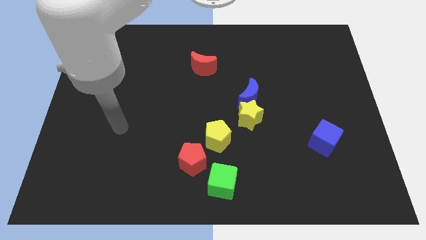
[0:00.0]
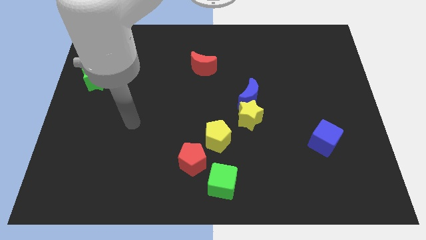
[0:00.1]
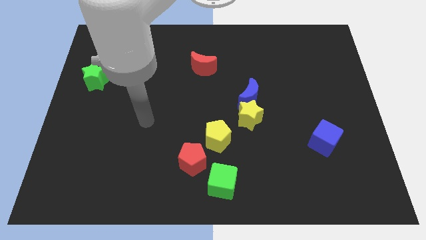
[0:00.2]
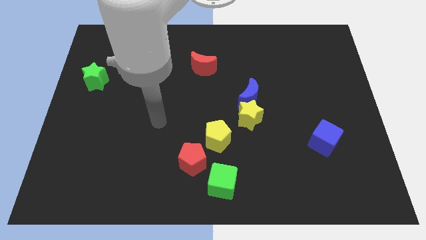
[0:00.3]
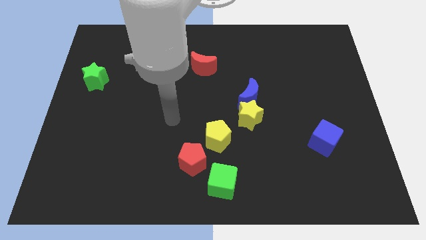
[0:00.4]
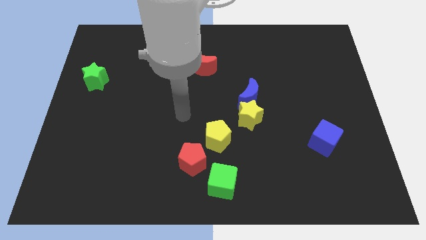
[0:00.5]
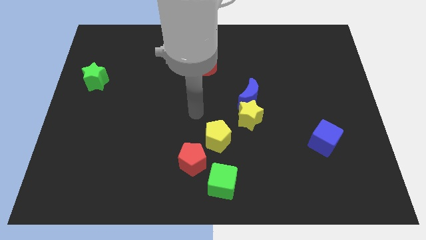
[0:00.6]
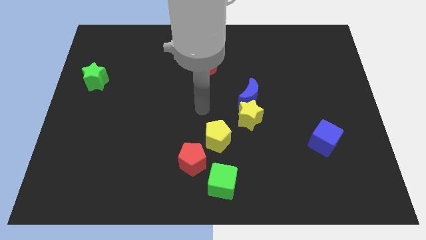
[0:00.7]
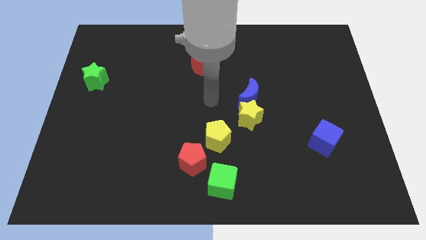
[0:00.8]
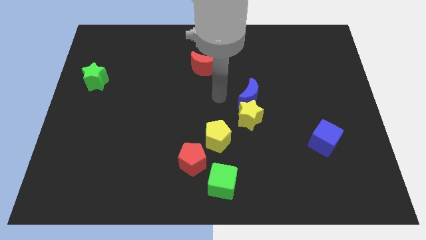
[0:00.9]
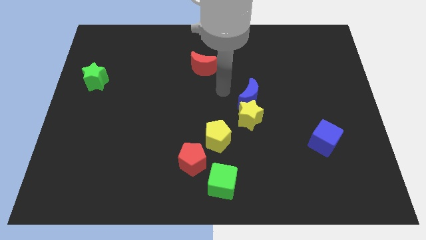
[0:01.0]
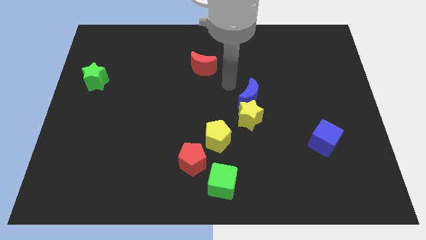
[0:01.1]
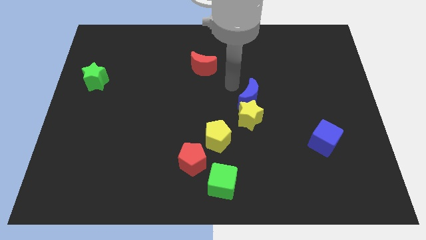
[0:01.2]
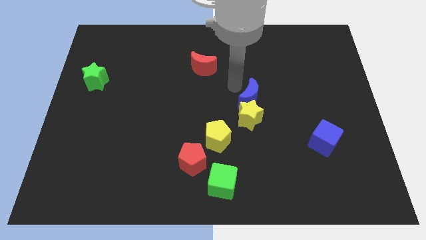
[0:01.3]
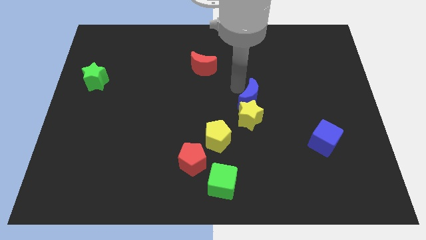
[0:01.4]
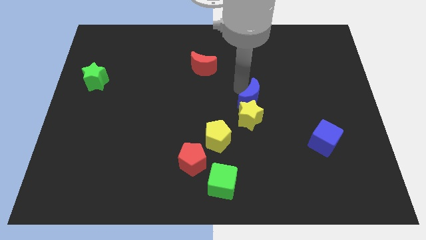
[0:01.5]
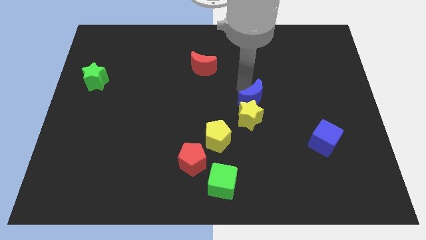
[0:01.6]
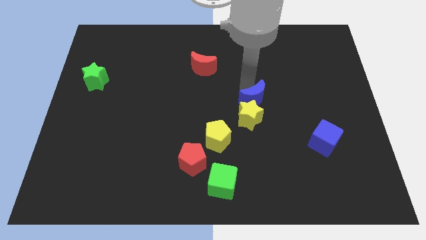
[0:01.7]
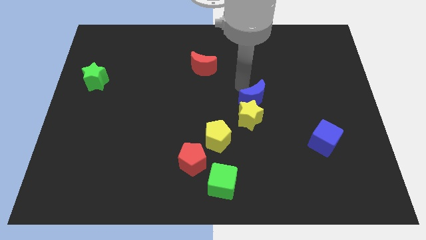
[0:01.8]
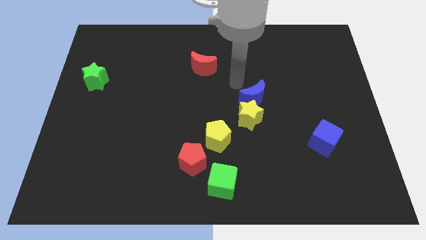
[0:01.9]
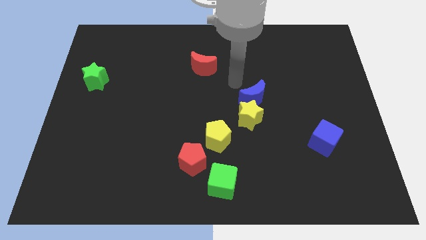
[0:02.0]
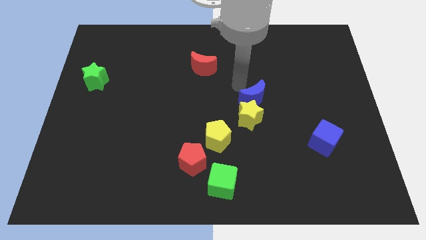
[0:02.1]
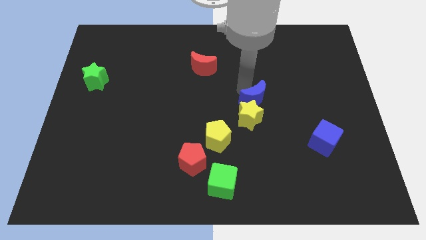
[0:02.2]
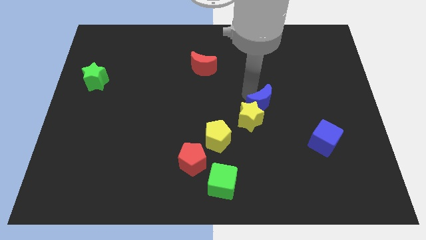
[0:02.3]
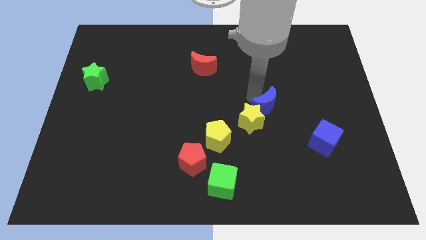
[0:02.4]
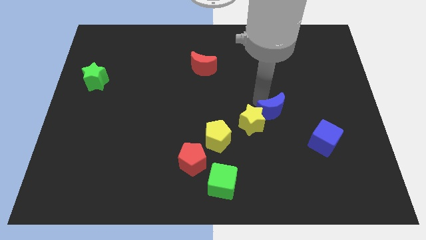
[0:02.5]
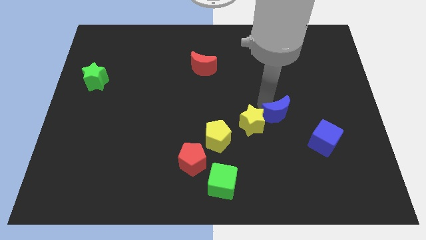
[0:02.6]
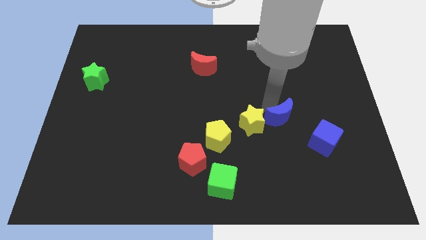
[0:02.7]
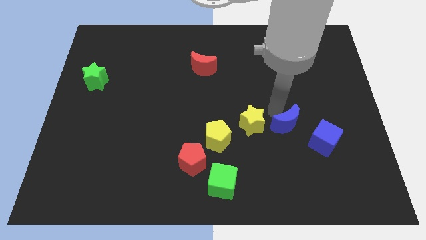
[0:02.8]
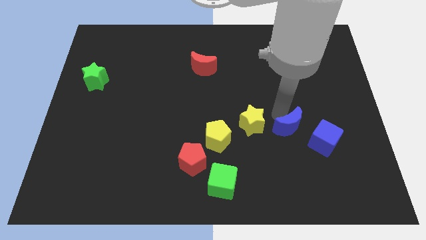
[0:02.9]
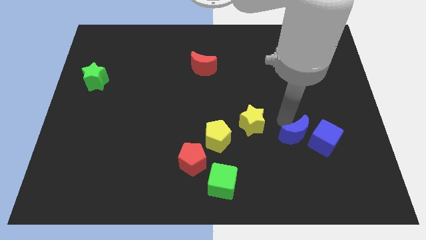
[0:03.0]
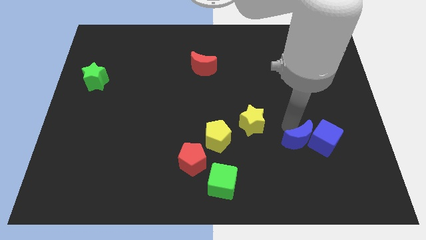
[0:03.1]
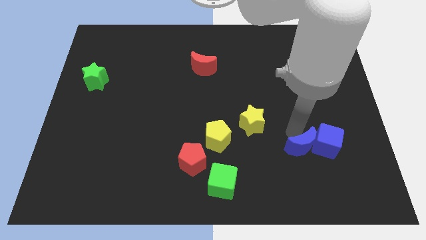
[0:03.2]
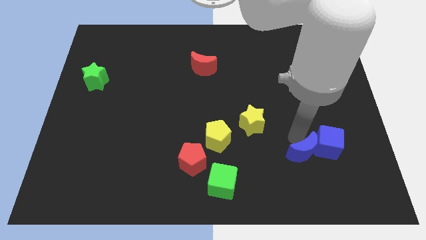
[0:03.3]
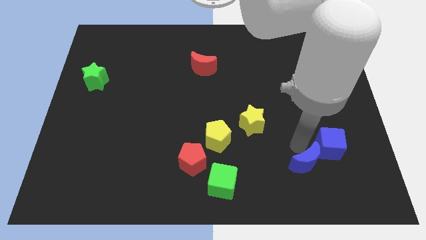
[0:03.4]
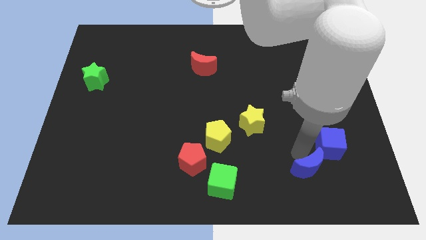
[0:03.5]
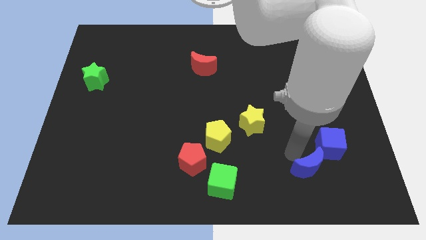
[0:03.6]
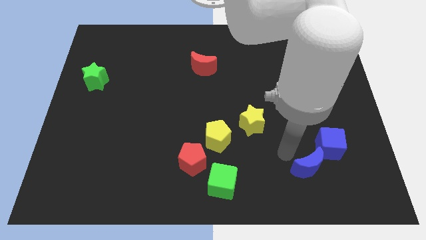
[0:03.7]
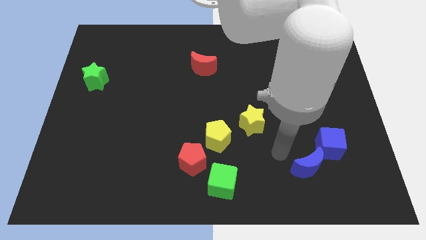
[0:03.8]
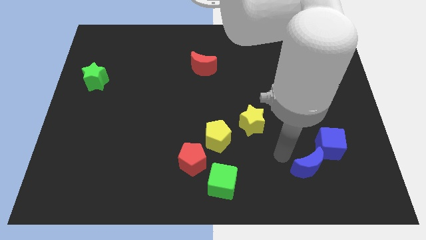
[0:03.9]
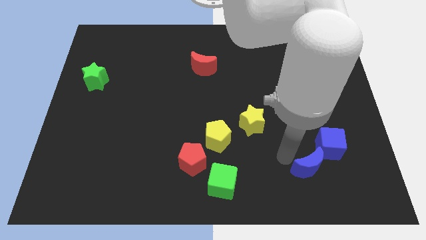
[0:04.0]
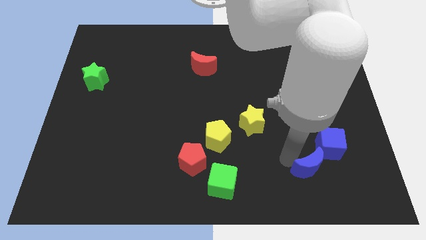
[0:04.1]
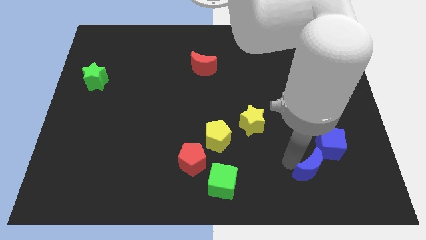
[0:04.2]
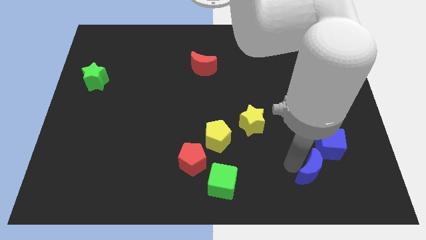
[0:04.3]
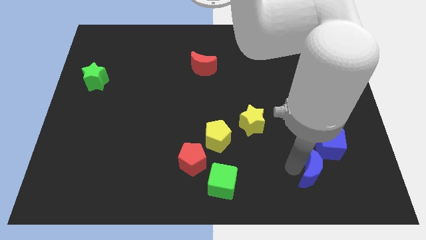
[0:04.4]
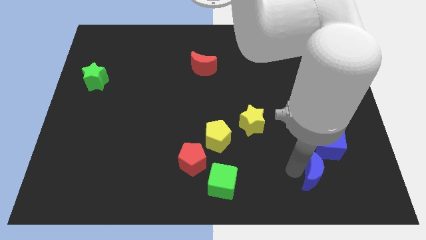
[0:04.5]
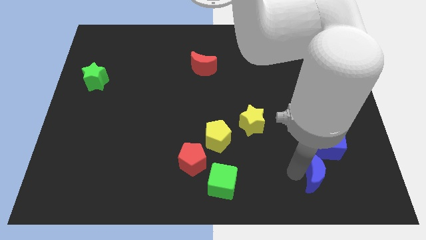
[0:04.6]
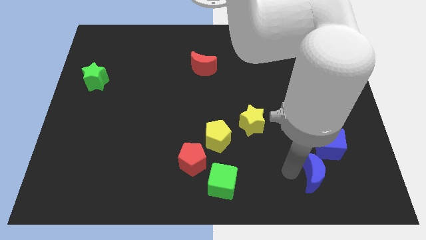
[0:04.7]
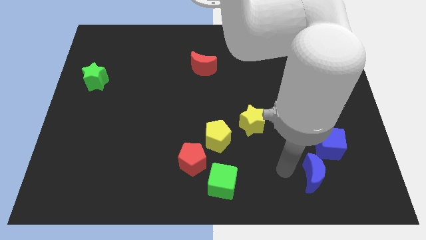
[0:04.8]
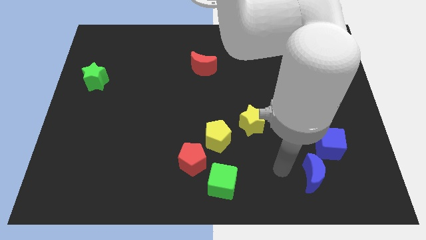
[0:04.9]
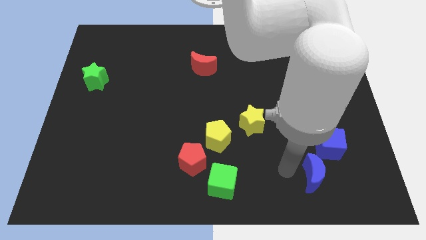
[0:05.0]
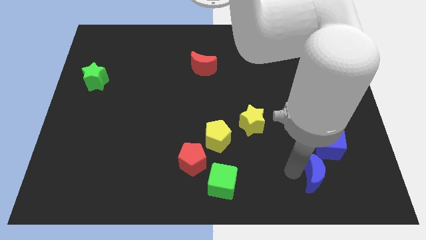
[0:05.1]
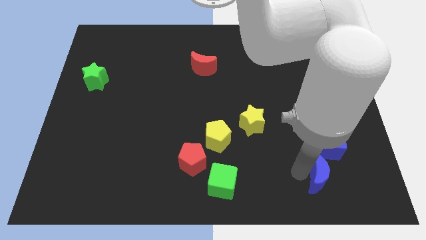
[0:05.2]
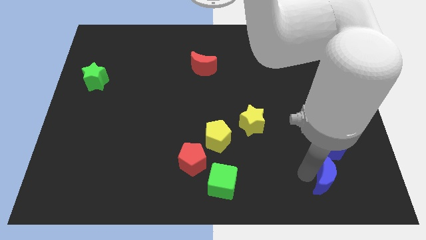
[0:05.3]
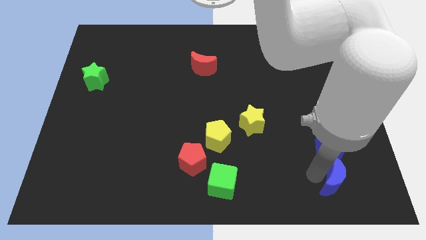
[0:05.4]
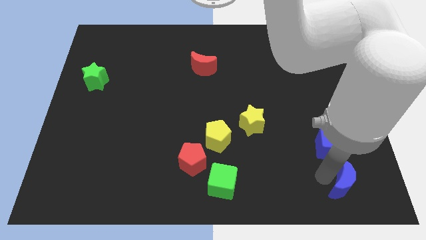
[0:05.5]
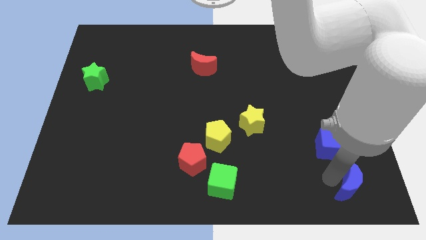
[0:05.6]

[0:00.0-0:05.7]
put the blue moon to the bottom right

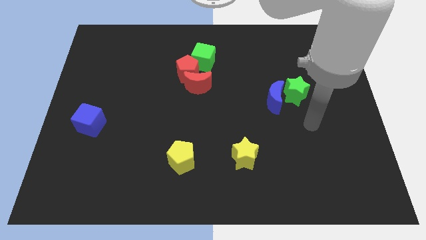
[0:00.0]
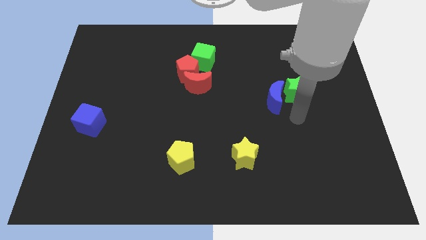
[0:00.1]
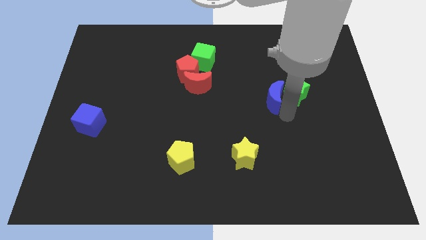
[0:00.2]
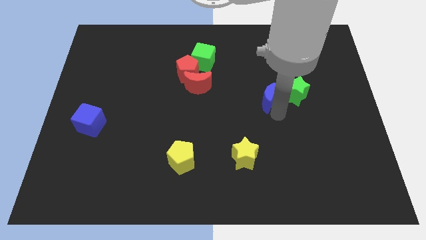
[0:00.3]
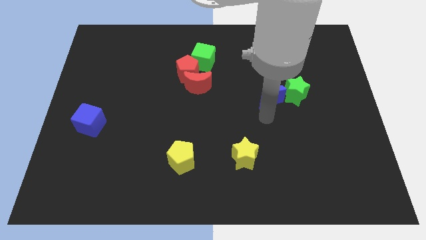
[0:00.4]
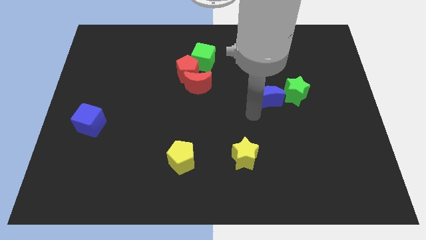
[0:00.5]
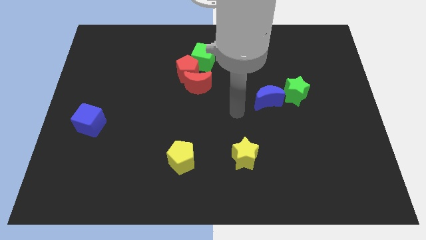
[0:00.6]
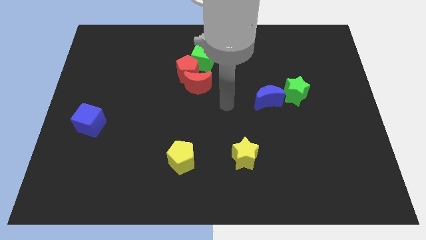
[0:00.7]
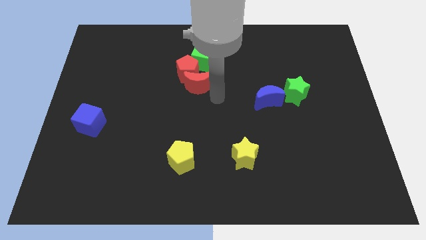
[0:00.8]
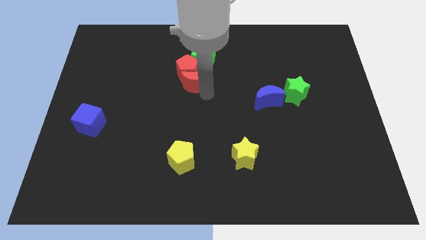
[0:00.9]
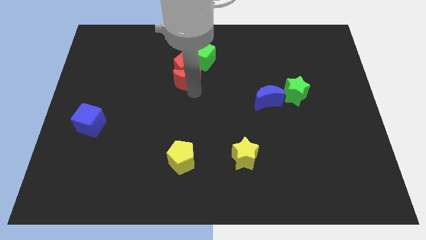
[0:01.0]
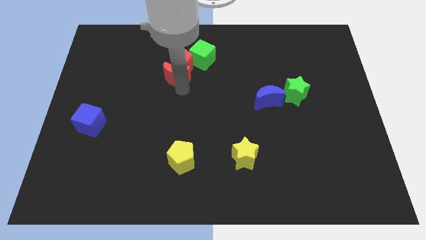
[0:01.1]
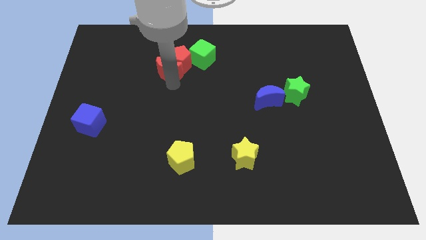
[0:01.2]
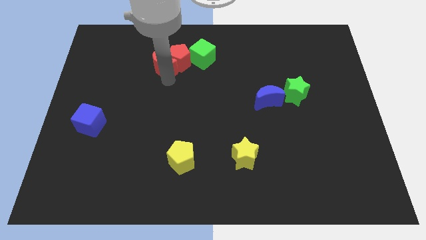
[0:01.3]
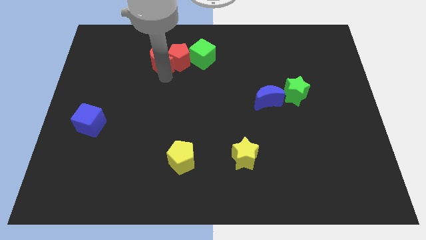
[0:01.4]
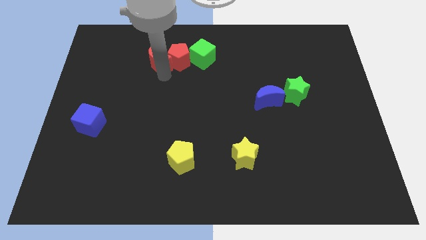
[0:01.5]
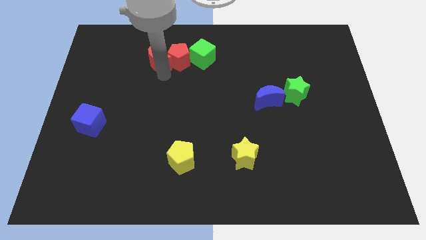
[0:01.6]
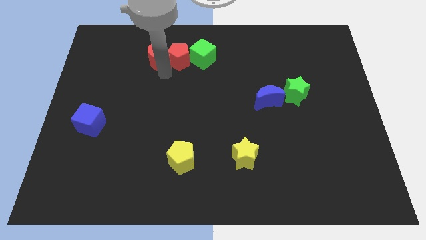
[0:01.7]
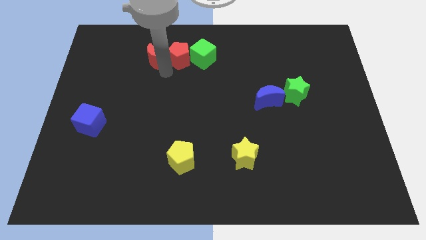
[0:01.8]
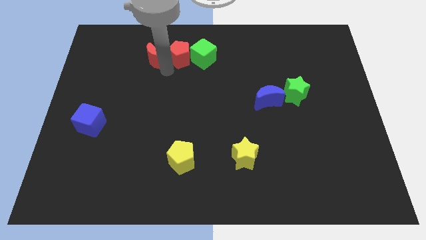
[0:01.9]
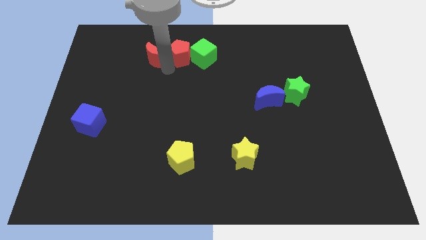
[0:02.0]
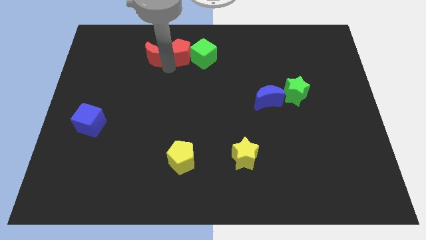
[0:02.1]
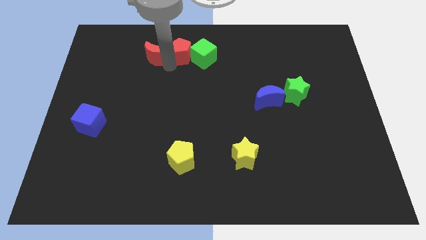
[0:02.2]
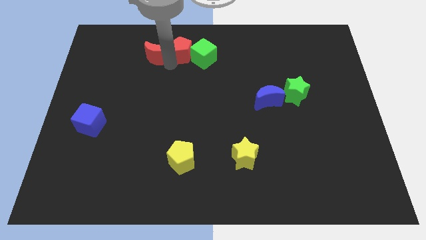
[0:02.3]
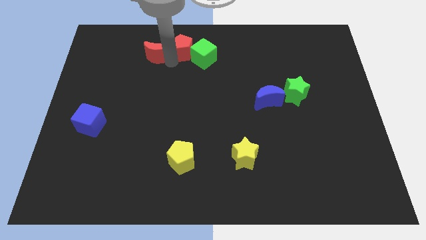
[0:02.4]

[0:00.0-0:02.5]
slide the red pentagon to the top
